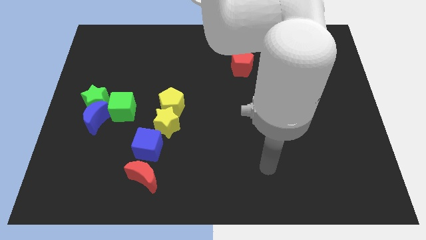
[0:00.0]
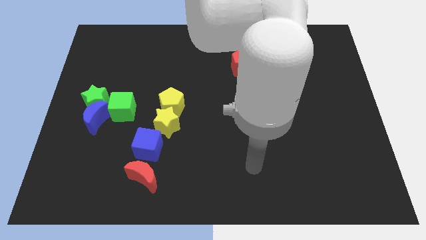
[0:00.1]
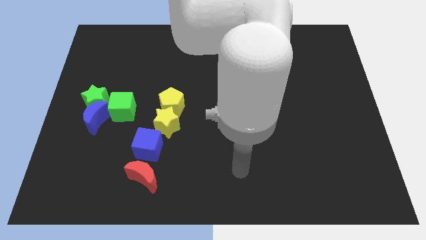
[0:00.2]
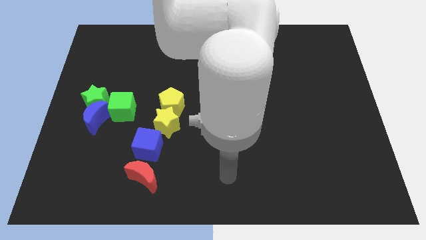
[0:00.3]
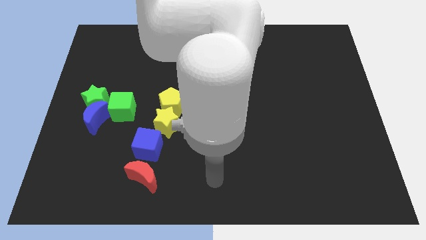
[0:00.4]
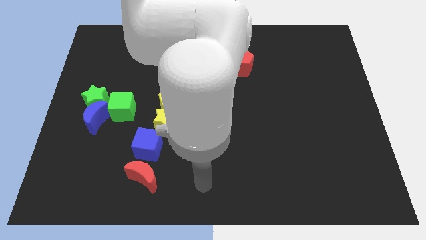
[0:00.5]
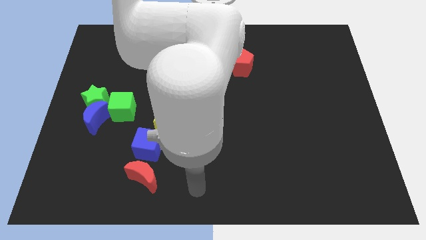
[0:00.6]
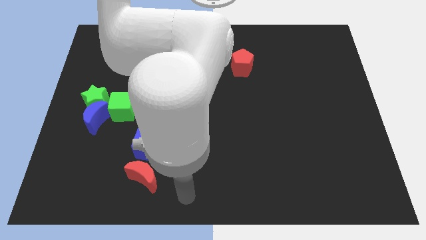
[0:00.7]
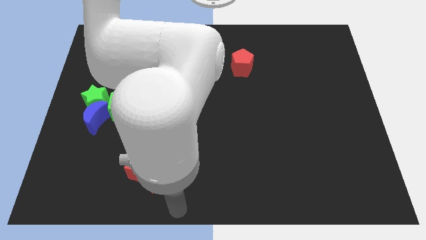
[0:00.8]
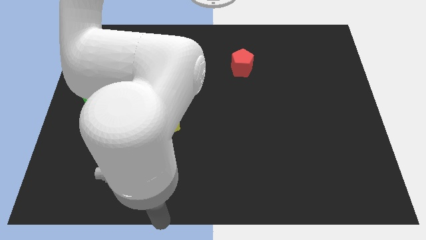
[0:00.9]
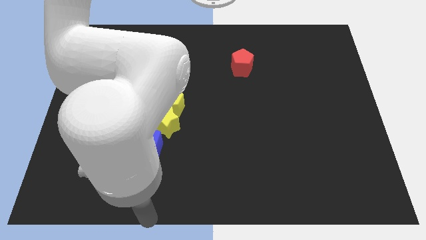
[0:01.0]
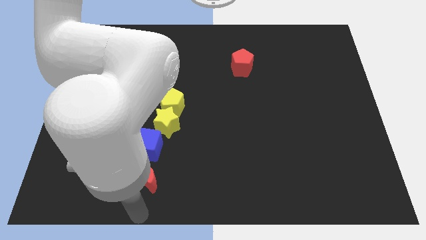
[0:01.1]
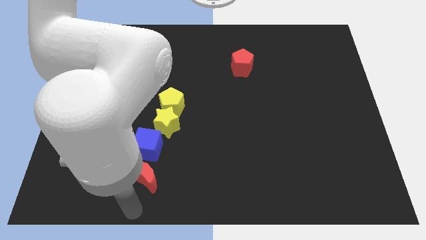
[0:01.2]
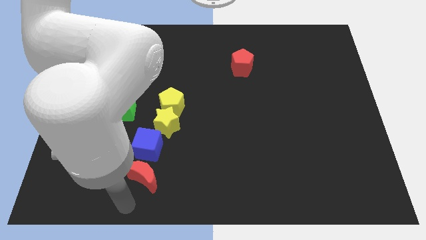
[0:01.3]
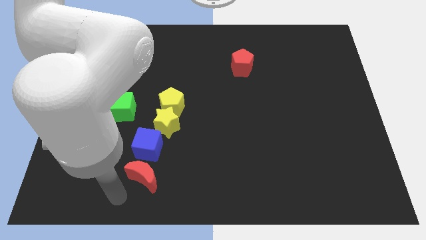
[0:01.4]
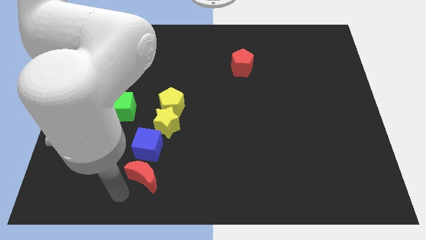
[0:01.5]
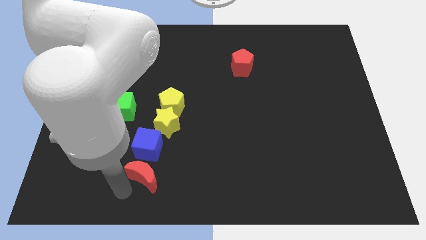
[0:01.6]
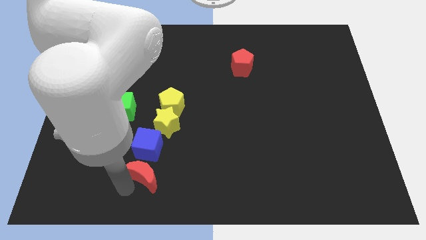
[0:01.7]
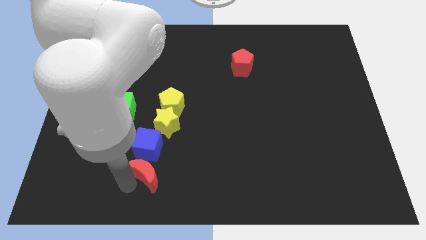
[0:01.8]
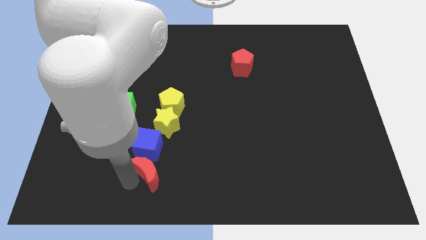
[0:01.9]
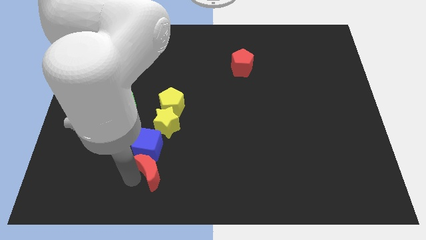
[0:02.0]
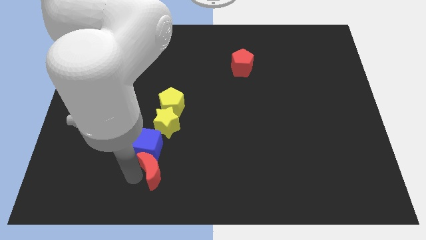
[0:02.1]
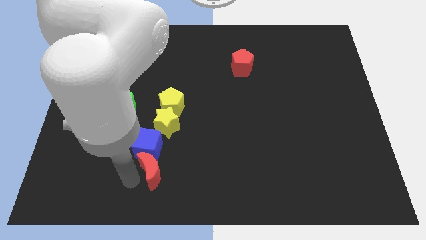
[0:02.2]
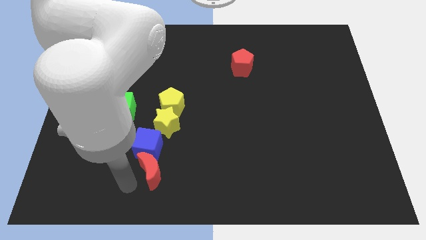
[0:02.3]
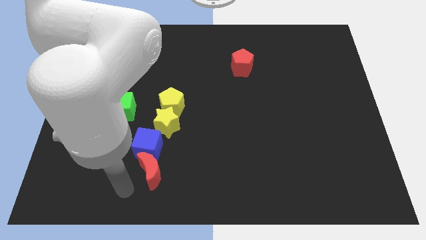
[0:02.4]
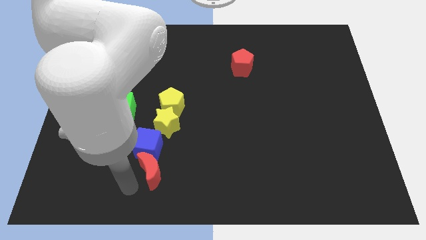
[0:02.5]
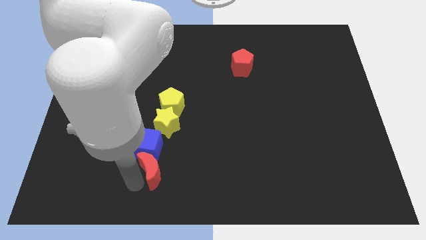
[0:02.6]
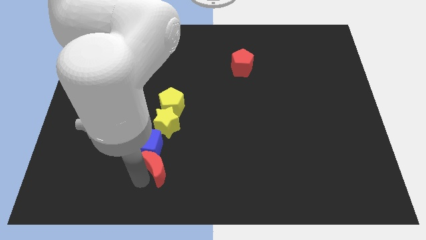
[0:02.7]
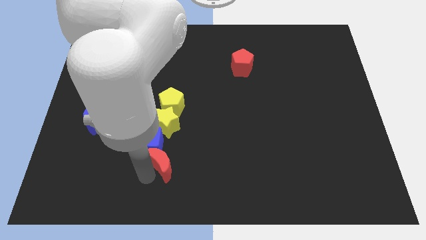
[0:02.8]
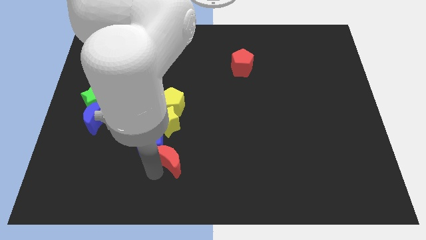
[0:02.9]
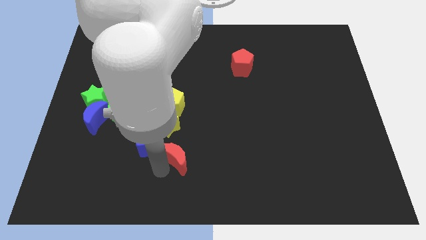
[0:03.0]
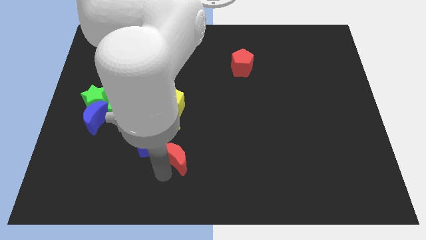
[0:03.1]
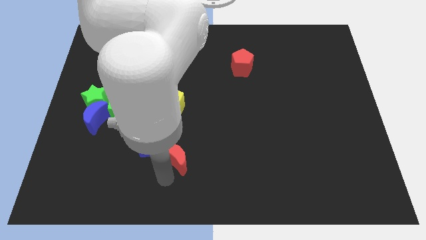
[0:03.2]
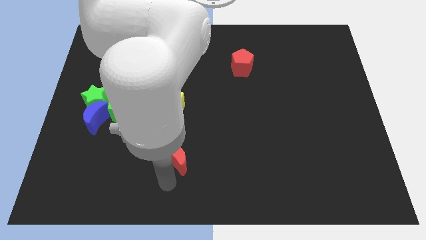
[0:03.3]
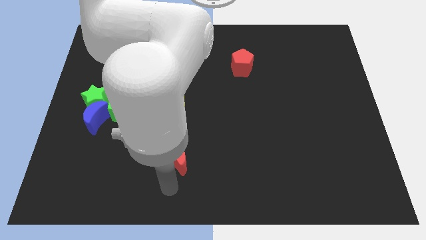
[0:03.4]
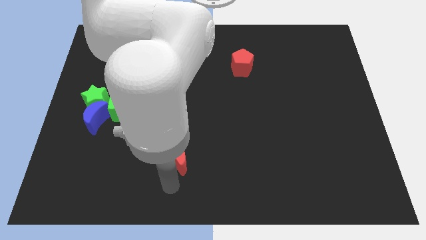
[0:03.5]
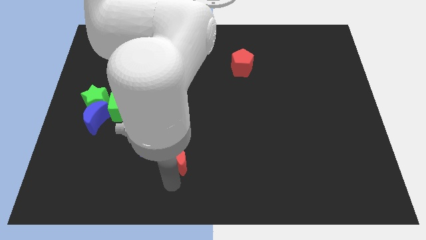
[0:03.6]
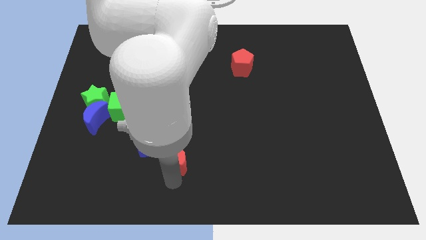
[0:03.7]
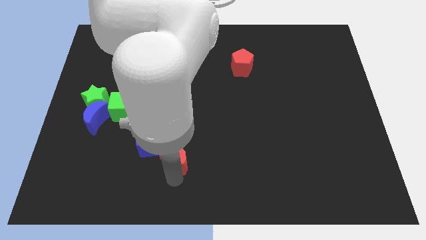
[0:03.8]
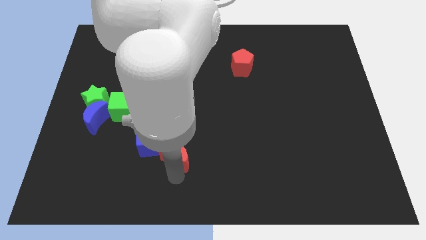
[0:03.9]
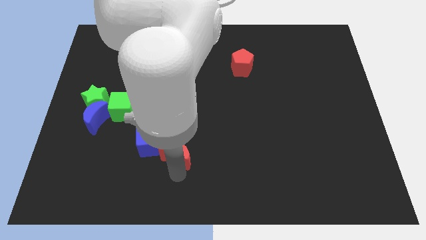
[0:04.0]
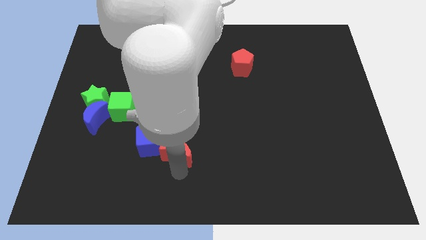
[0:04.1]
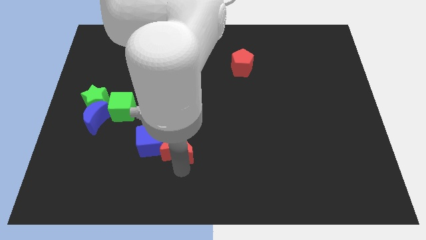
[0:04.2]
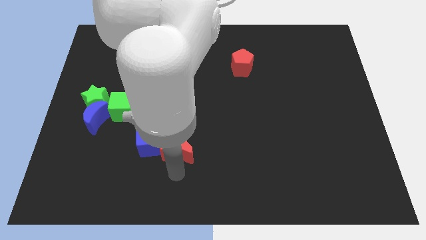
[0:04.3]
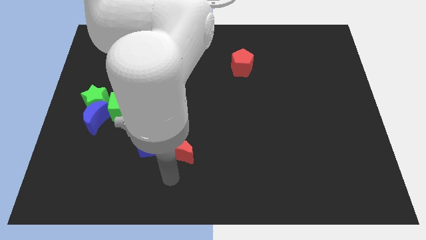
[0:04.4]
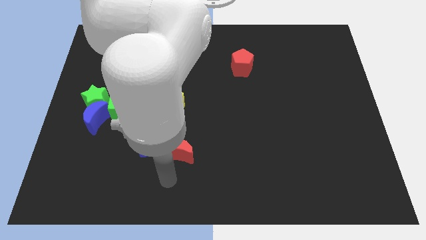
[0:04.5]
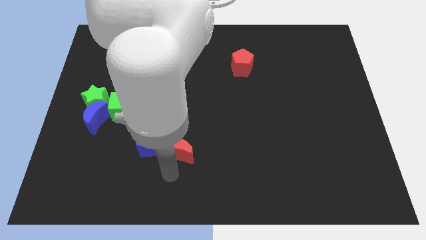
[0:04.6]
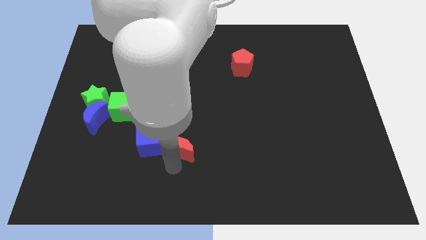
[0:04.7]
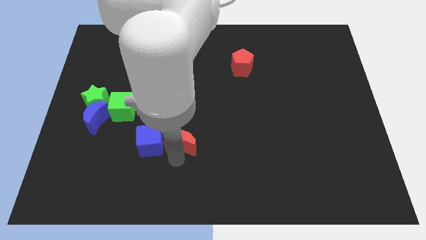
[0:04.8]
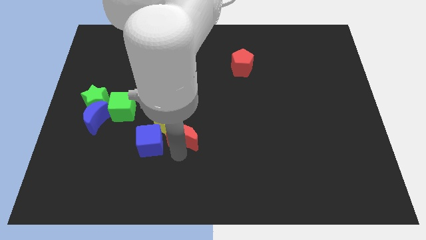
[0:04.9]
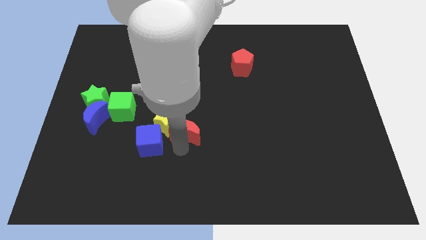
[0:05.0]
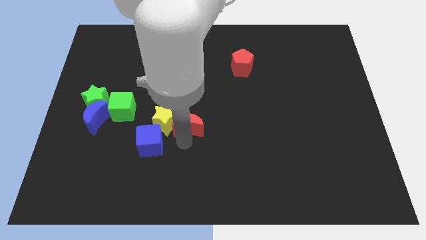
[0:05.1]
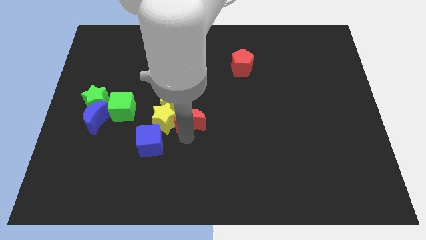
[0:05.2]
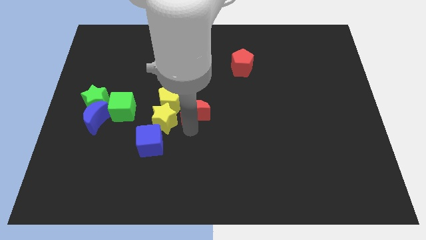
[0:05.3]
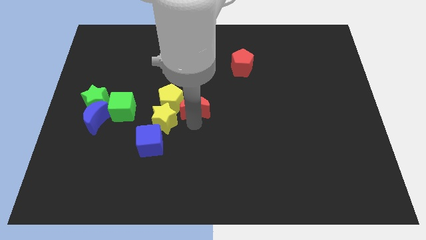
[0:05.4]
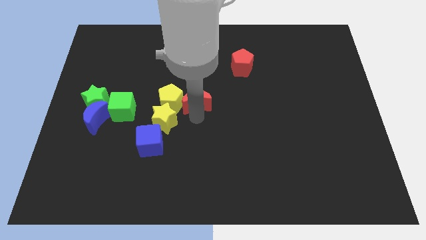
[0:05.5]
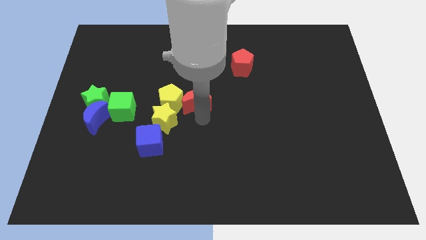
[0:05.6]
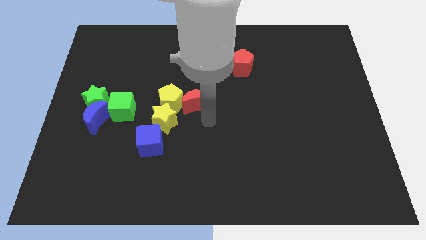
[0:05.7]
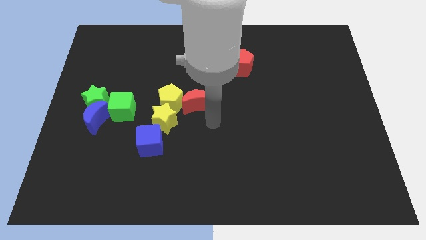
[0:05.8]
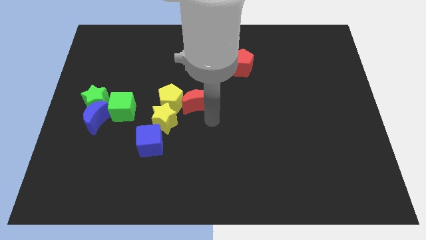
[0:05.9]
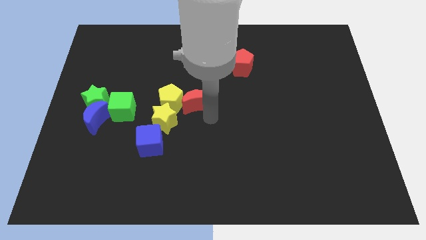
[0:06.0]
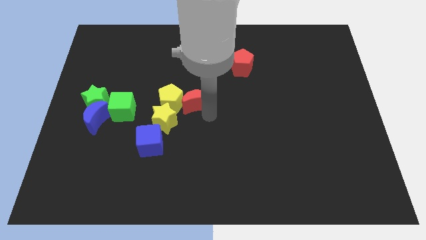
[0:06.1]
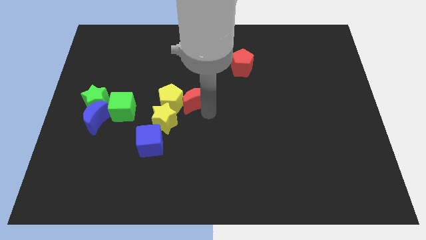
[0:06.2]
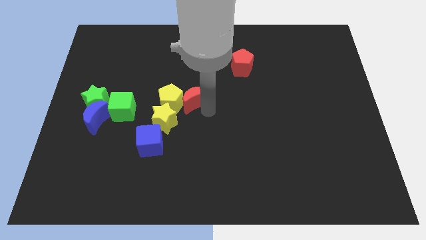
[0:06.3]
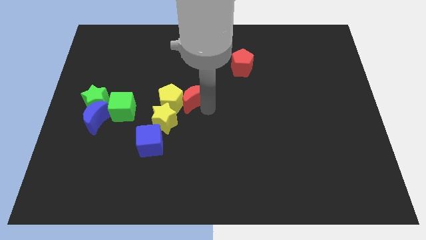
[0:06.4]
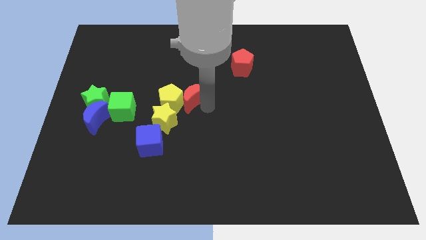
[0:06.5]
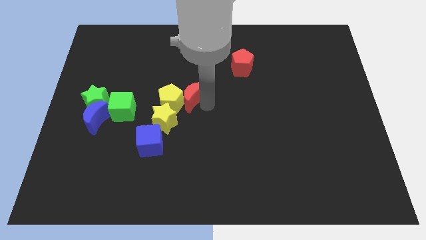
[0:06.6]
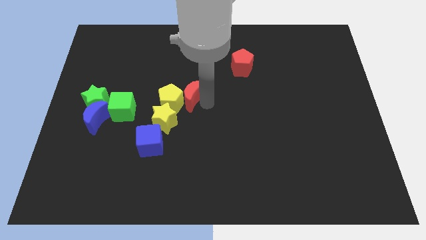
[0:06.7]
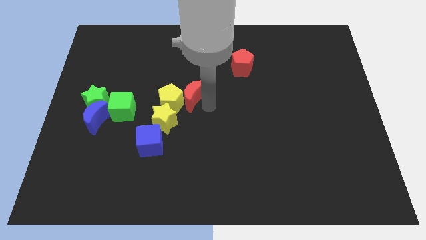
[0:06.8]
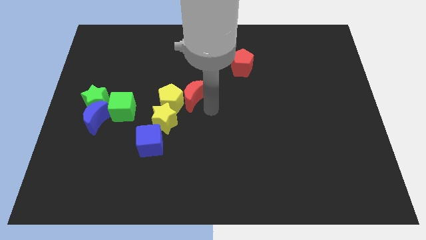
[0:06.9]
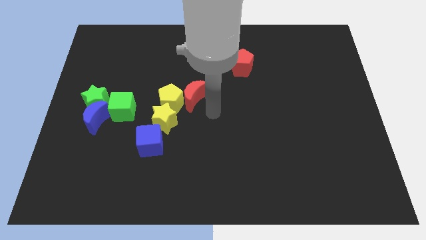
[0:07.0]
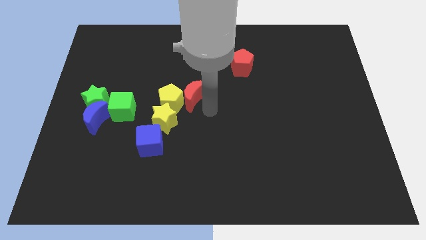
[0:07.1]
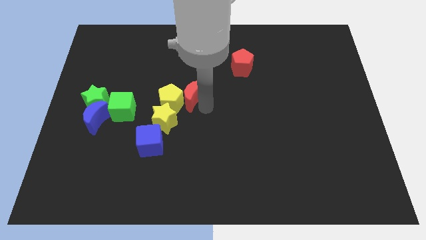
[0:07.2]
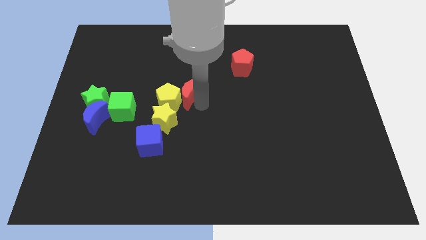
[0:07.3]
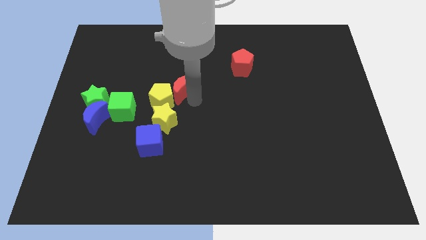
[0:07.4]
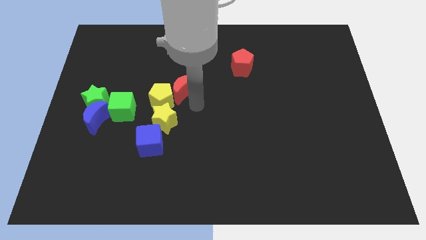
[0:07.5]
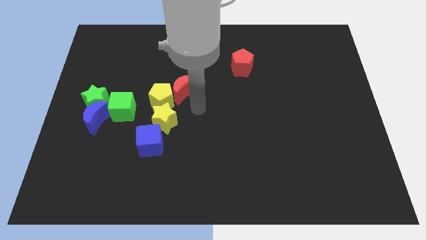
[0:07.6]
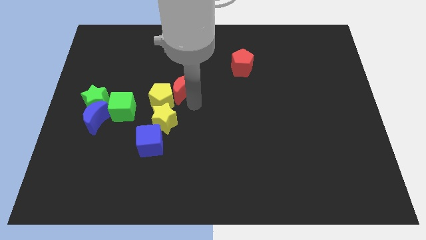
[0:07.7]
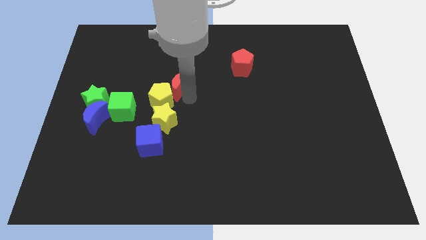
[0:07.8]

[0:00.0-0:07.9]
push the red moon above the yellow pentagon

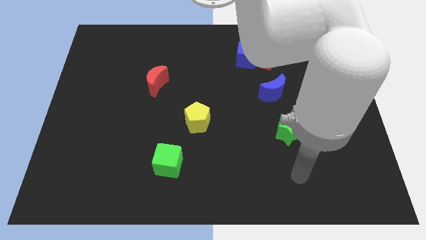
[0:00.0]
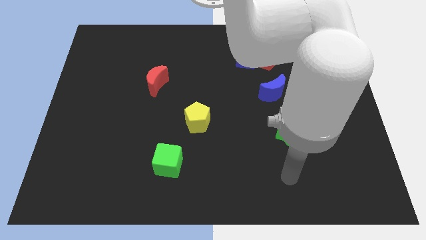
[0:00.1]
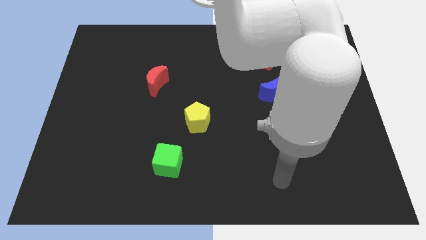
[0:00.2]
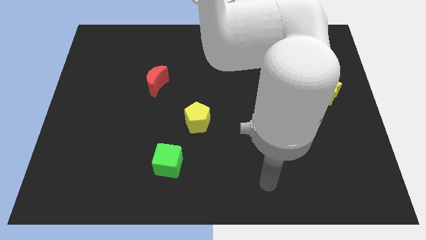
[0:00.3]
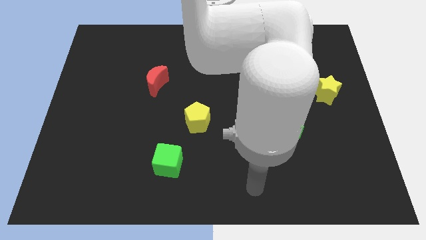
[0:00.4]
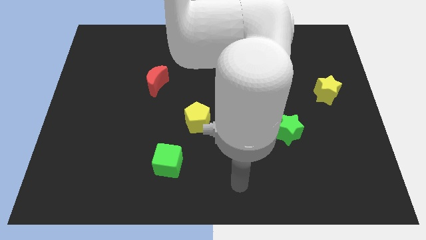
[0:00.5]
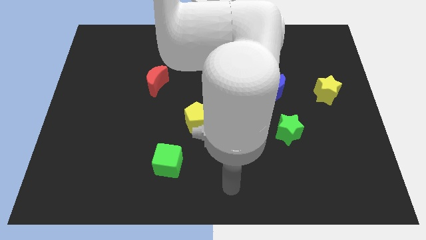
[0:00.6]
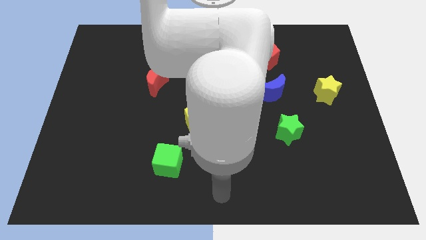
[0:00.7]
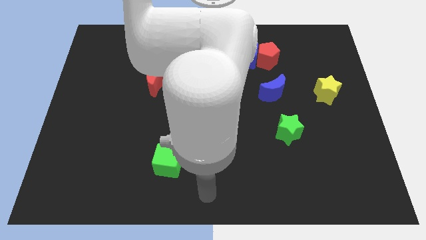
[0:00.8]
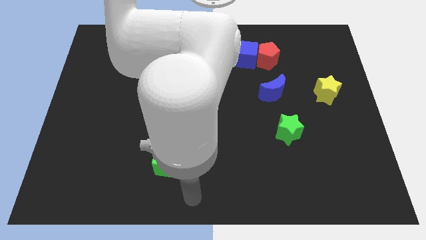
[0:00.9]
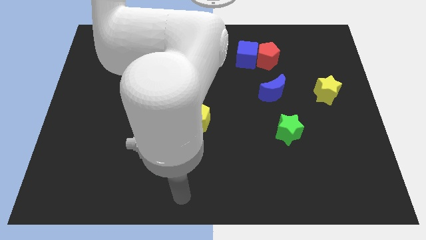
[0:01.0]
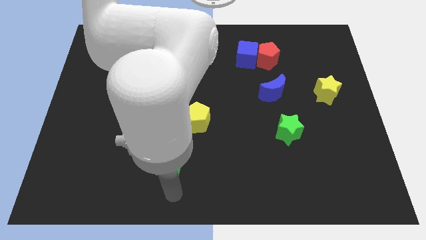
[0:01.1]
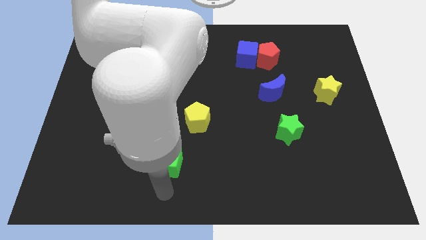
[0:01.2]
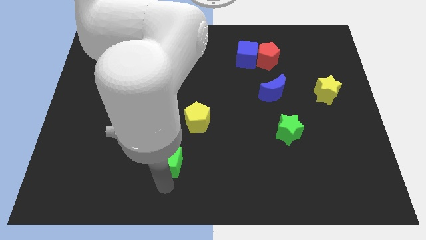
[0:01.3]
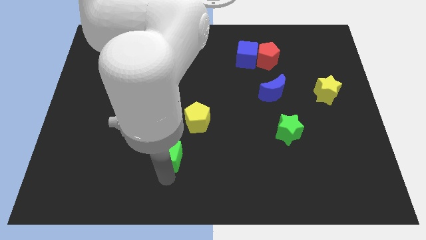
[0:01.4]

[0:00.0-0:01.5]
put the green cube diagonally down and to the left of the yellow pentagon
